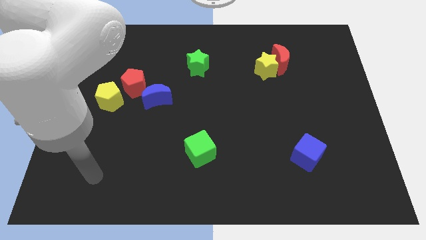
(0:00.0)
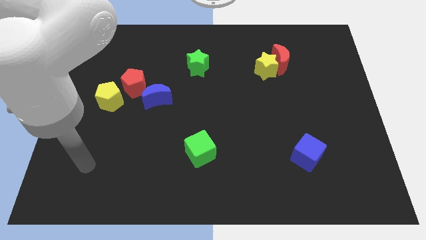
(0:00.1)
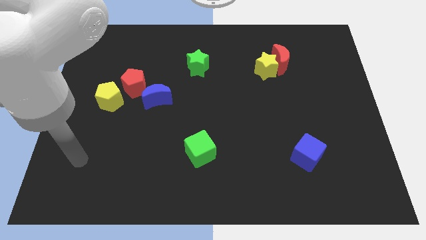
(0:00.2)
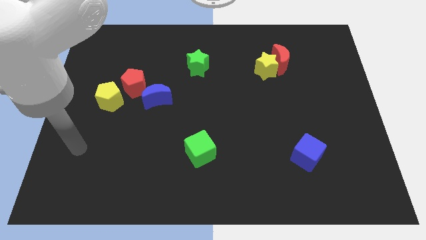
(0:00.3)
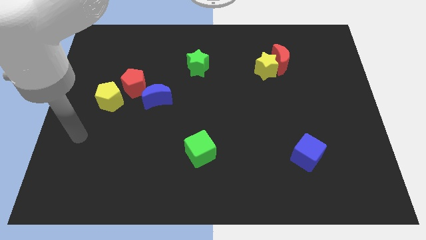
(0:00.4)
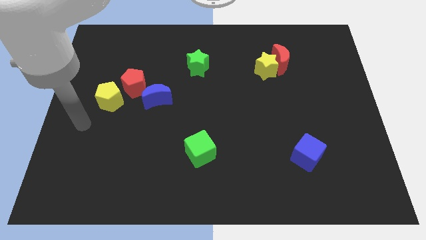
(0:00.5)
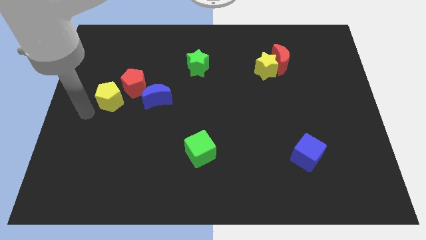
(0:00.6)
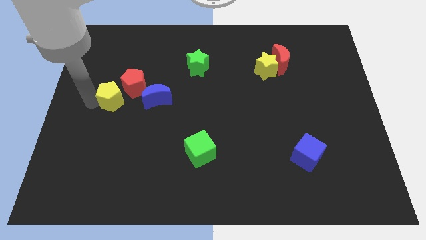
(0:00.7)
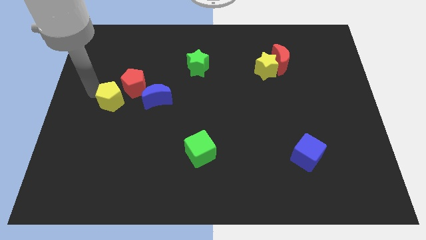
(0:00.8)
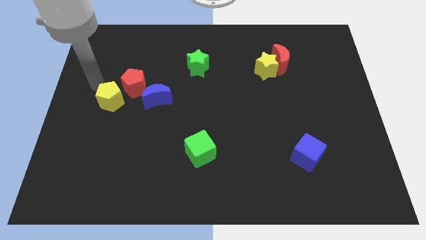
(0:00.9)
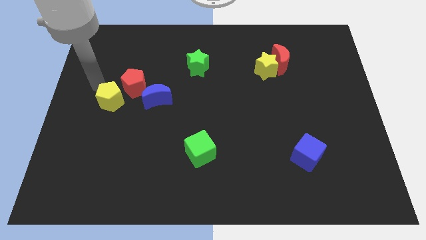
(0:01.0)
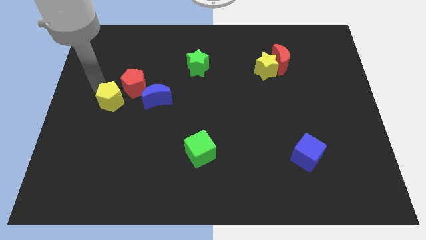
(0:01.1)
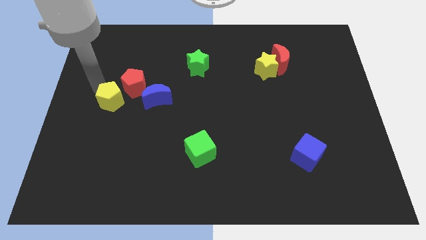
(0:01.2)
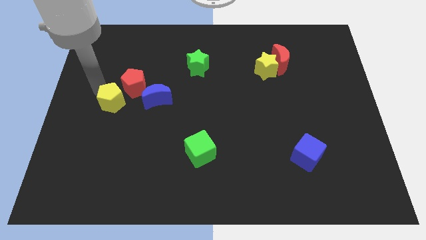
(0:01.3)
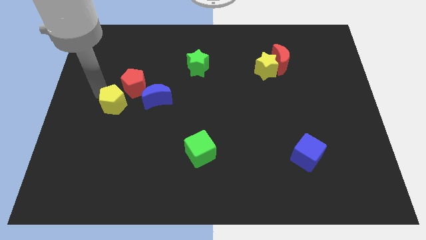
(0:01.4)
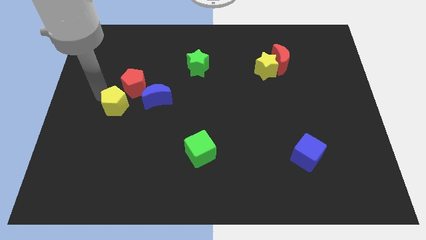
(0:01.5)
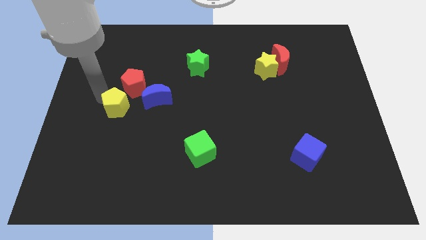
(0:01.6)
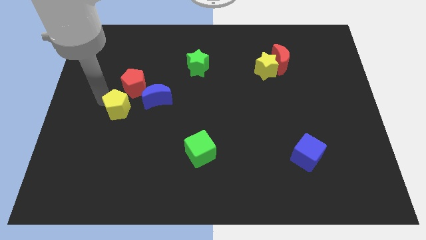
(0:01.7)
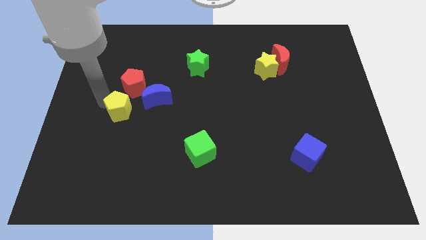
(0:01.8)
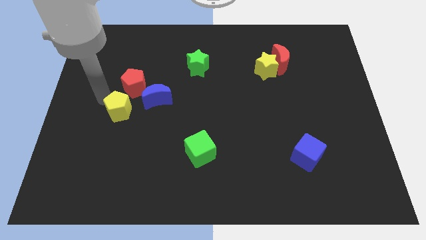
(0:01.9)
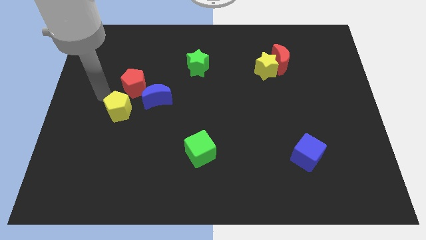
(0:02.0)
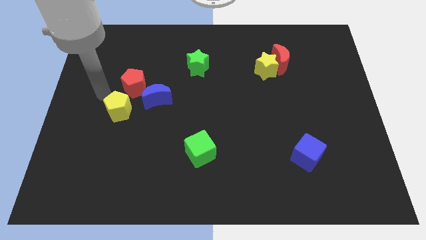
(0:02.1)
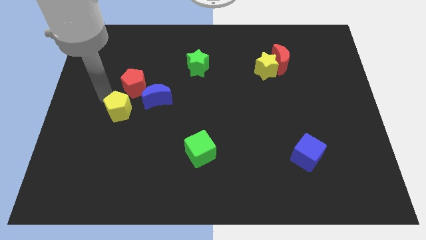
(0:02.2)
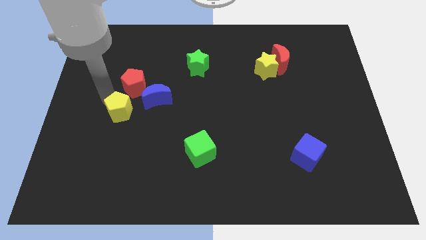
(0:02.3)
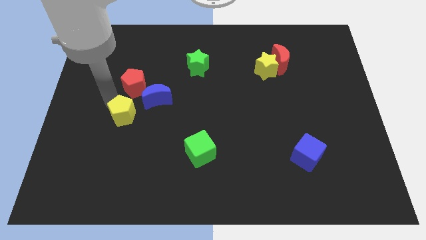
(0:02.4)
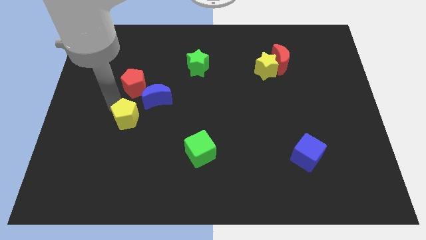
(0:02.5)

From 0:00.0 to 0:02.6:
slightly slide the yellow pentagon down and to the right

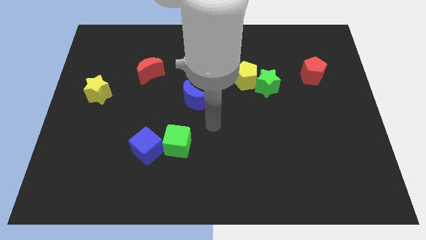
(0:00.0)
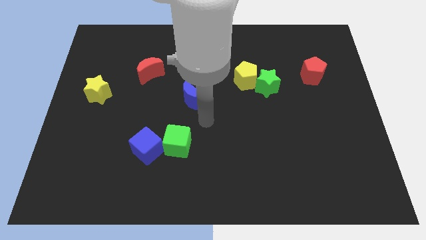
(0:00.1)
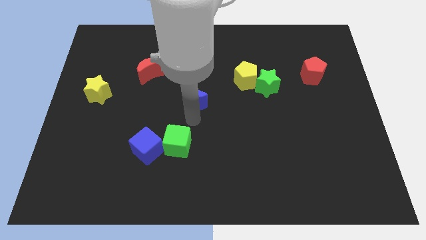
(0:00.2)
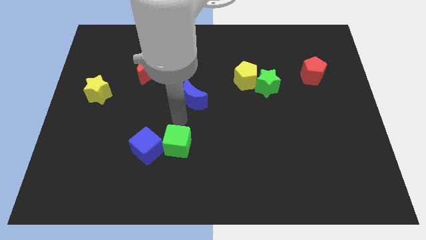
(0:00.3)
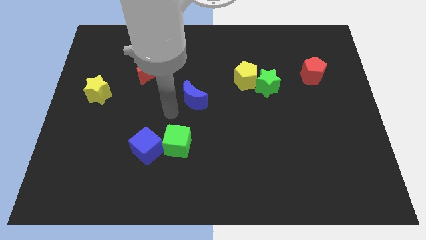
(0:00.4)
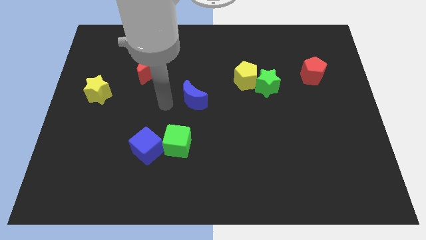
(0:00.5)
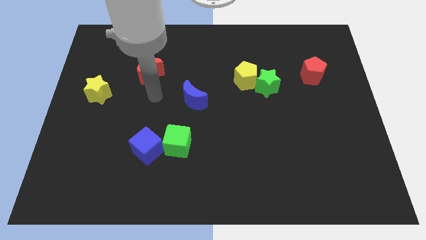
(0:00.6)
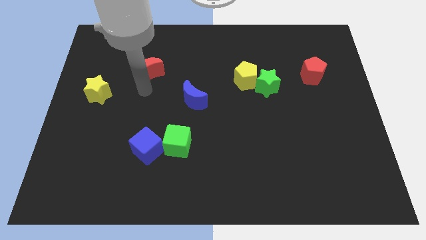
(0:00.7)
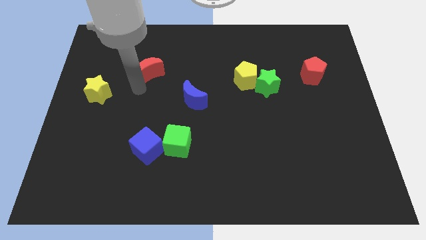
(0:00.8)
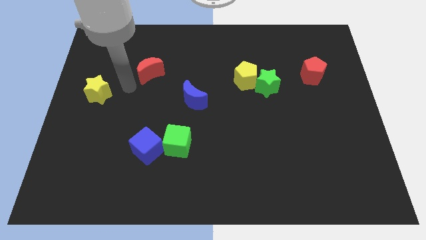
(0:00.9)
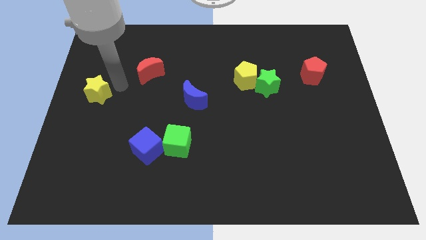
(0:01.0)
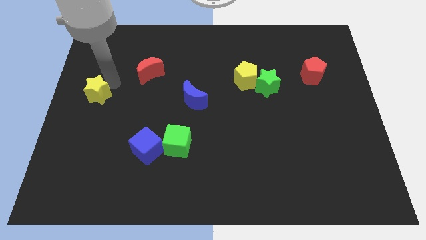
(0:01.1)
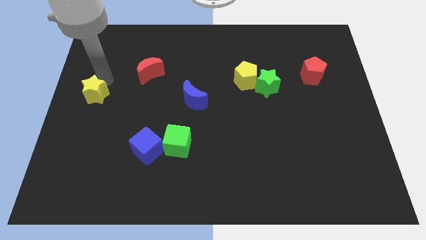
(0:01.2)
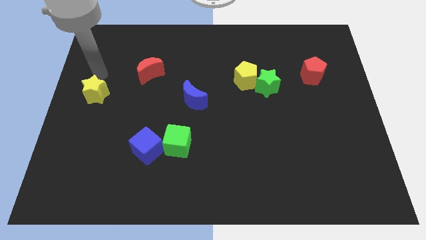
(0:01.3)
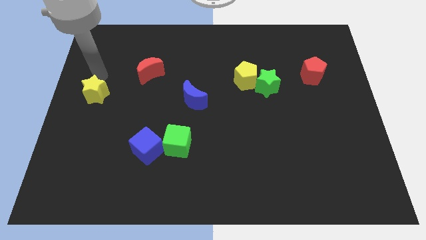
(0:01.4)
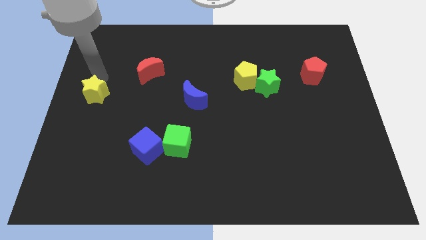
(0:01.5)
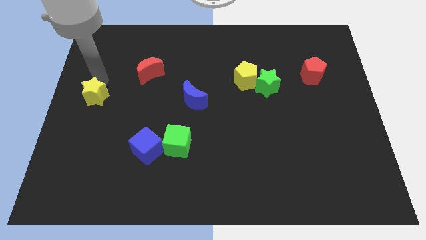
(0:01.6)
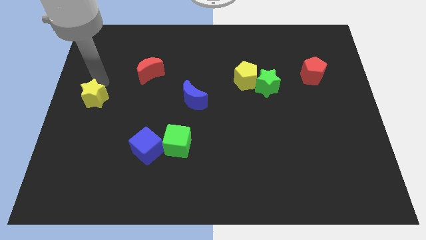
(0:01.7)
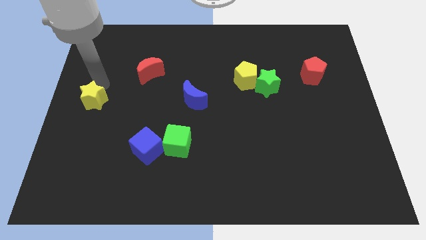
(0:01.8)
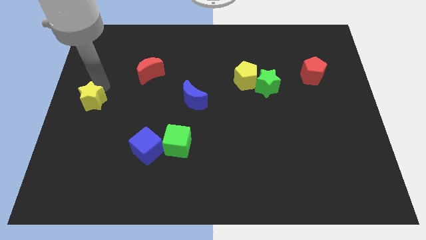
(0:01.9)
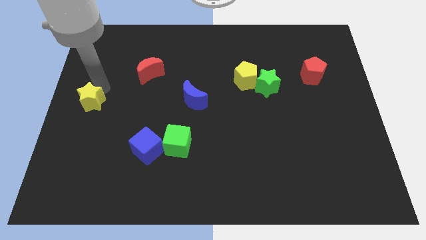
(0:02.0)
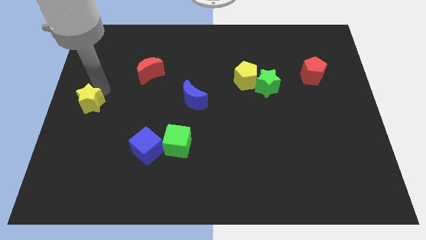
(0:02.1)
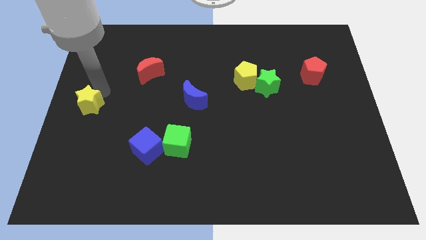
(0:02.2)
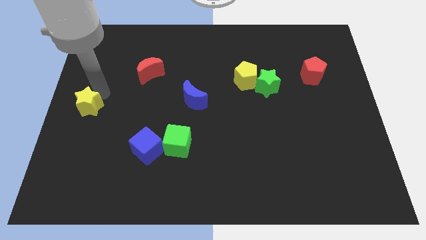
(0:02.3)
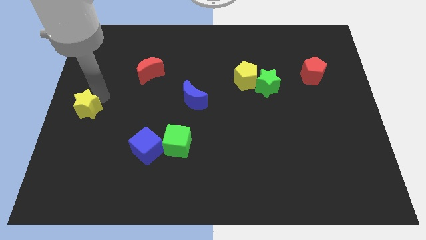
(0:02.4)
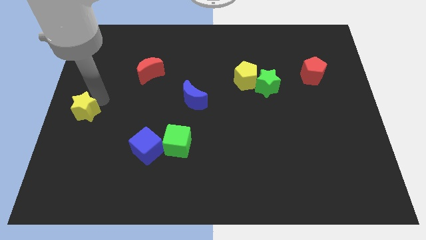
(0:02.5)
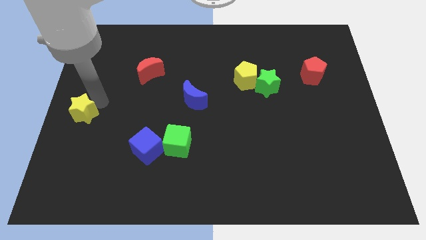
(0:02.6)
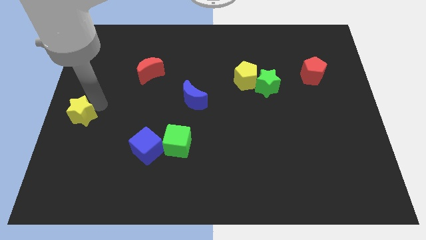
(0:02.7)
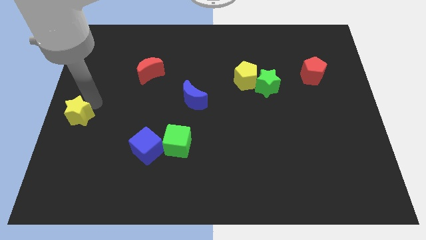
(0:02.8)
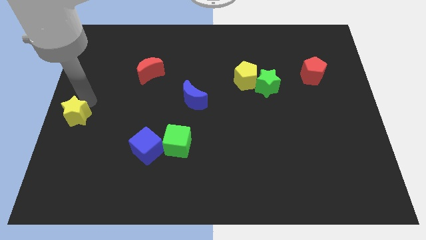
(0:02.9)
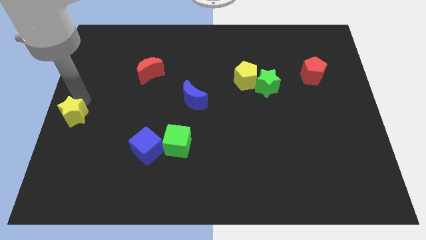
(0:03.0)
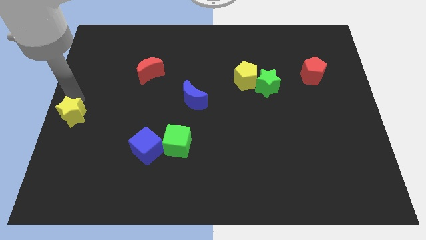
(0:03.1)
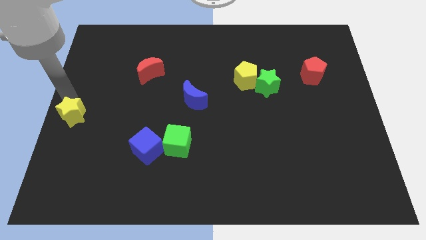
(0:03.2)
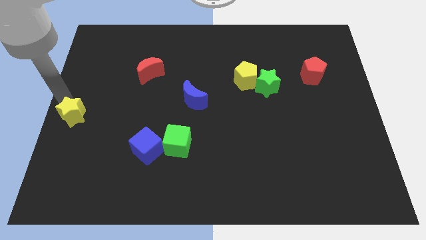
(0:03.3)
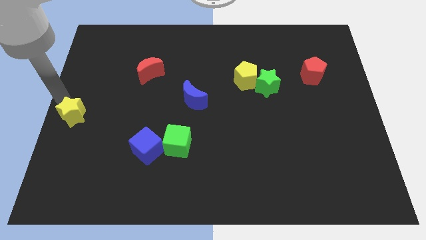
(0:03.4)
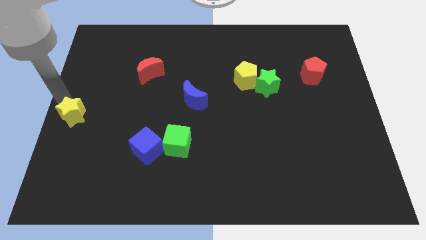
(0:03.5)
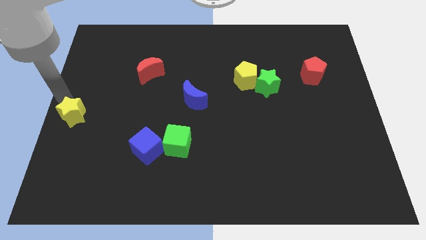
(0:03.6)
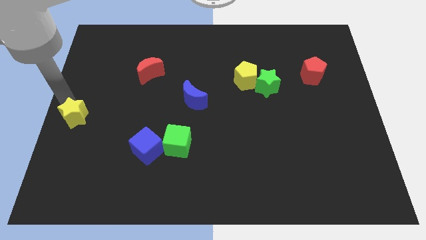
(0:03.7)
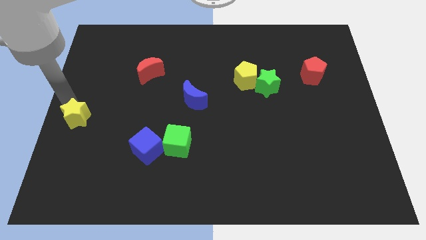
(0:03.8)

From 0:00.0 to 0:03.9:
slide the yellow star down a bit

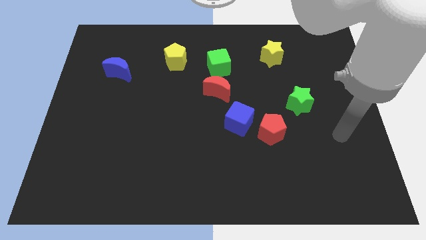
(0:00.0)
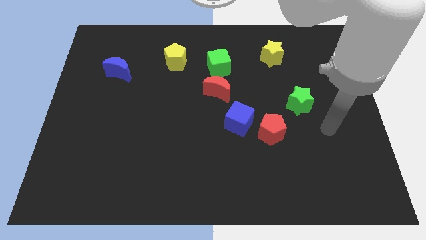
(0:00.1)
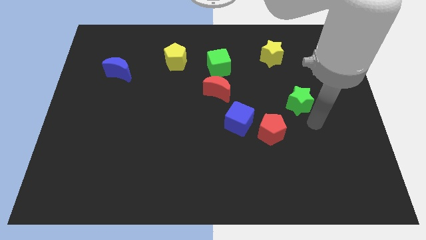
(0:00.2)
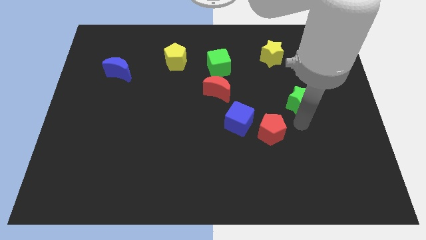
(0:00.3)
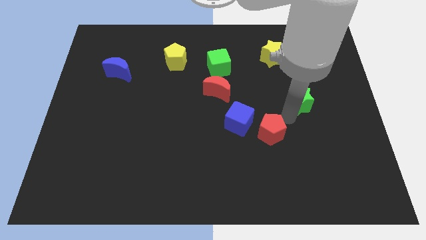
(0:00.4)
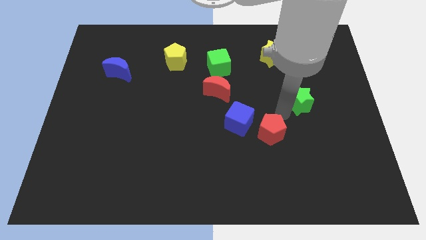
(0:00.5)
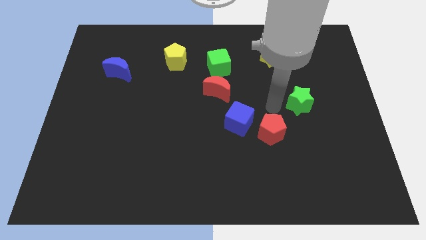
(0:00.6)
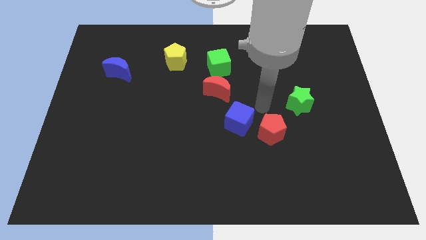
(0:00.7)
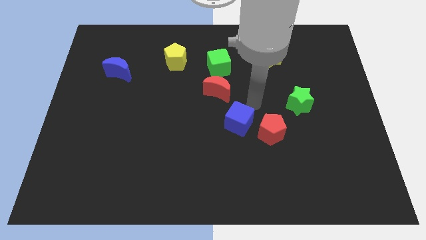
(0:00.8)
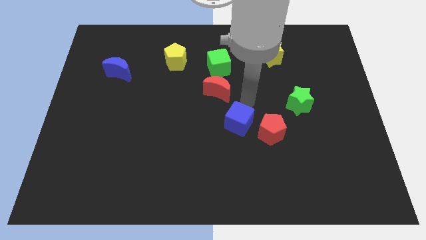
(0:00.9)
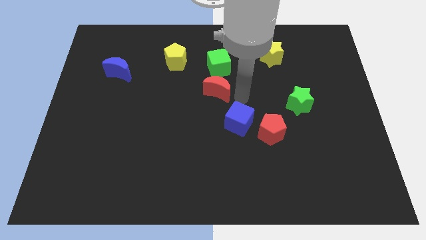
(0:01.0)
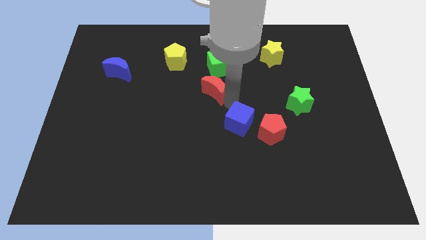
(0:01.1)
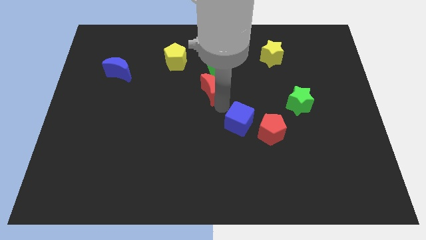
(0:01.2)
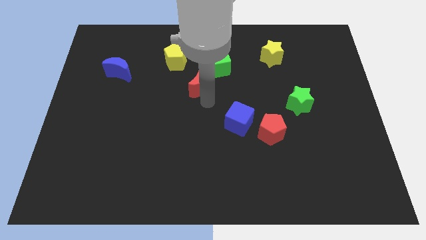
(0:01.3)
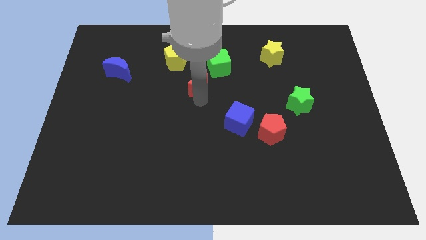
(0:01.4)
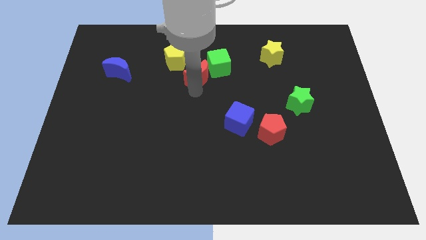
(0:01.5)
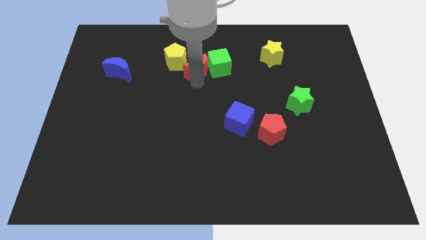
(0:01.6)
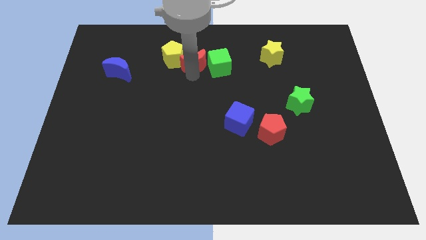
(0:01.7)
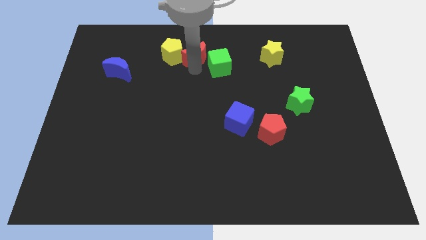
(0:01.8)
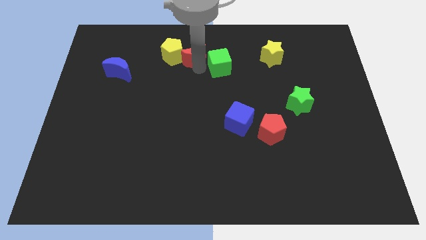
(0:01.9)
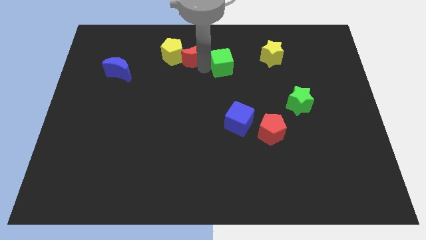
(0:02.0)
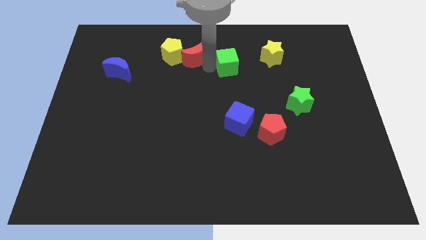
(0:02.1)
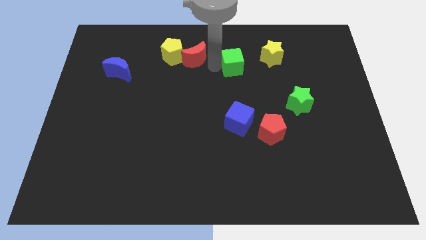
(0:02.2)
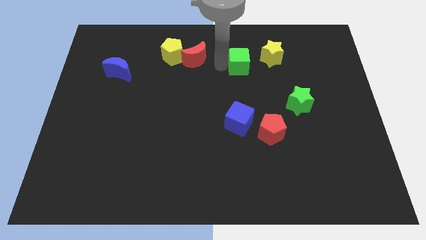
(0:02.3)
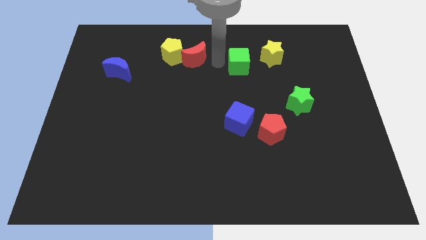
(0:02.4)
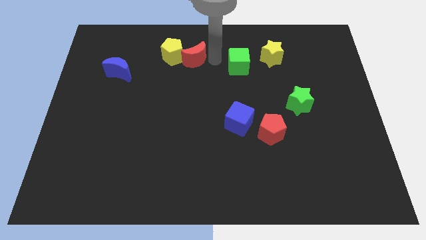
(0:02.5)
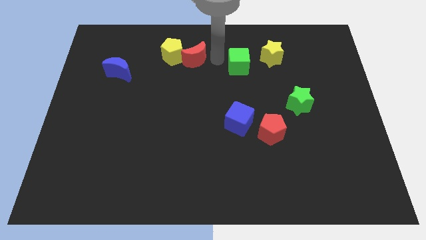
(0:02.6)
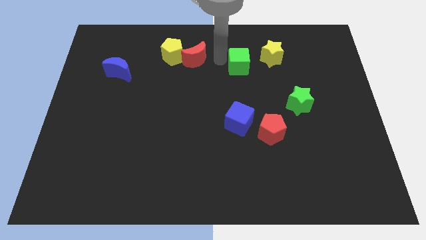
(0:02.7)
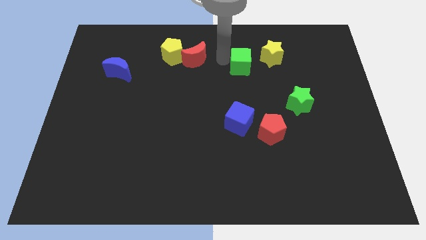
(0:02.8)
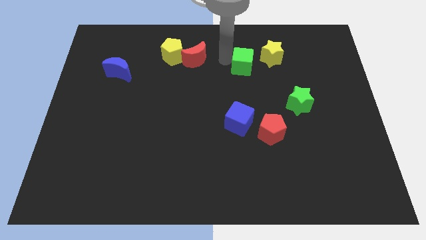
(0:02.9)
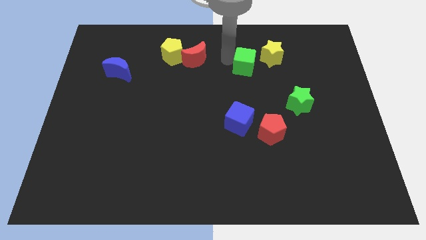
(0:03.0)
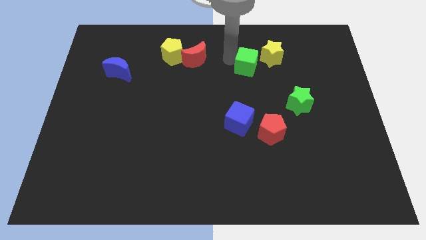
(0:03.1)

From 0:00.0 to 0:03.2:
push the green cube right a bit
